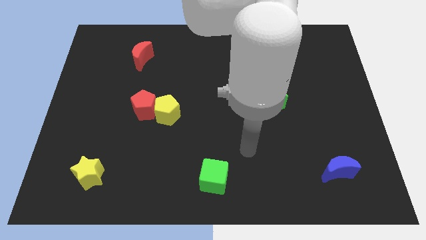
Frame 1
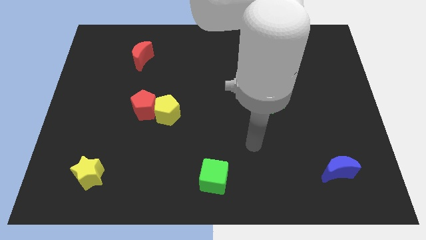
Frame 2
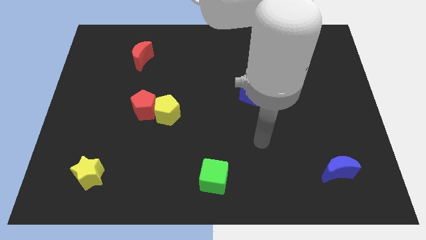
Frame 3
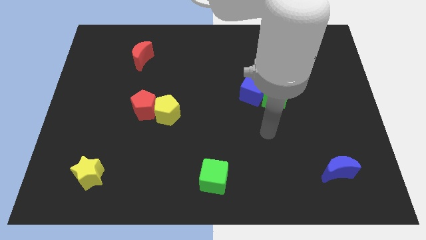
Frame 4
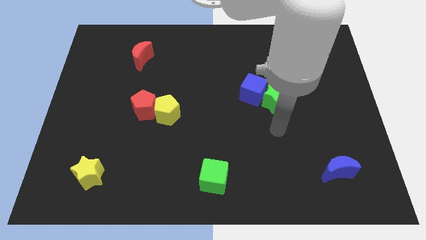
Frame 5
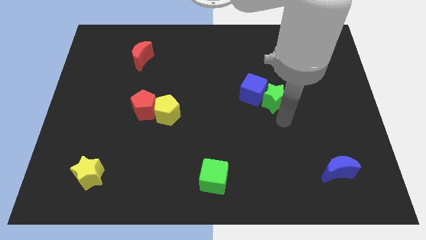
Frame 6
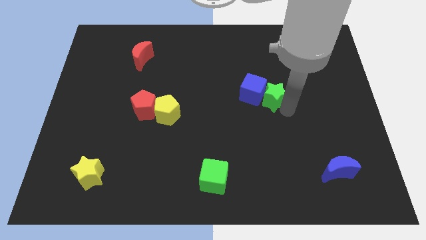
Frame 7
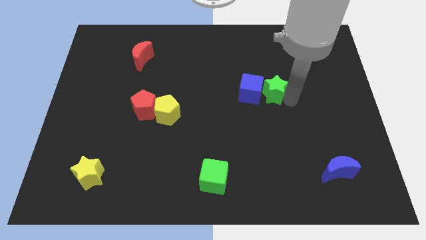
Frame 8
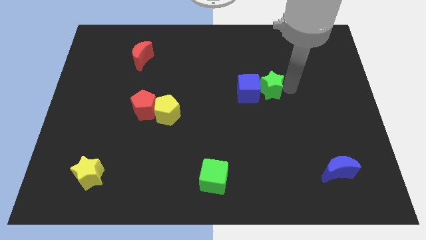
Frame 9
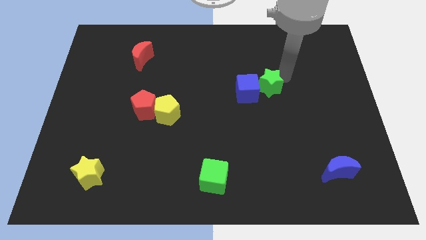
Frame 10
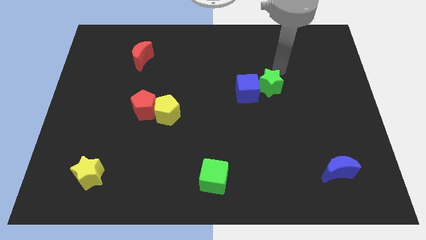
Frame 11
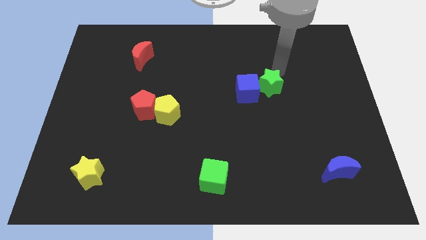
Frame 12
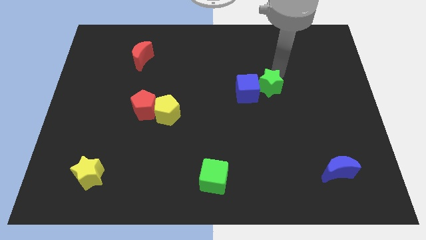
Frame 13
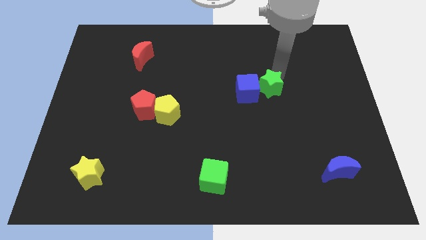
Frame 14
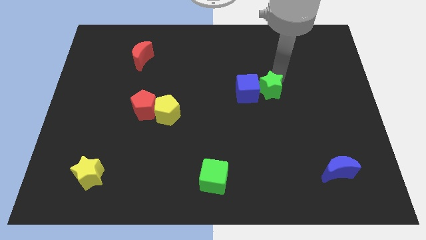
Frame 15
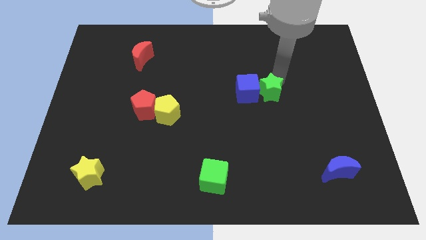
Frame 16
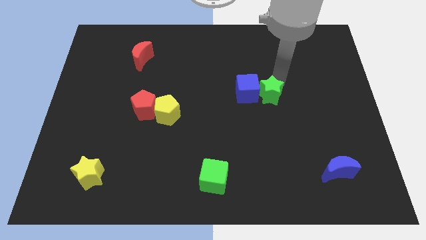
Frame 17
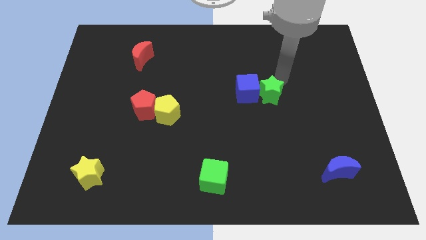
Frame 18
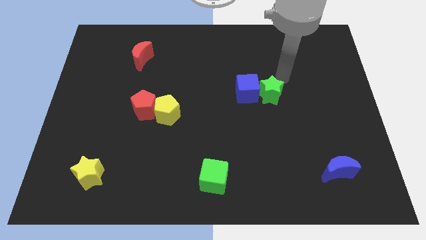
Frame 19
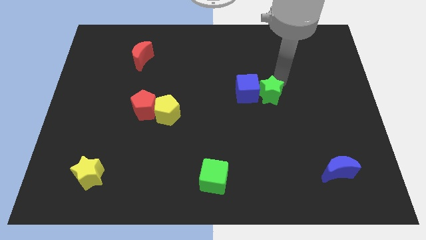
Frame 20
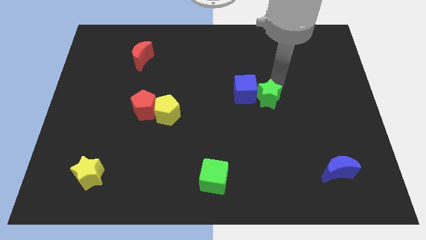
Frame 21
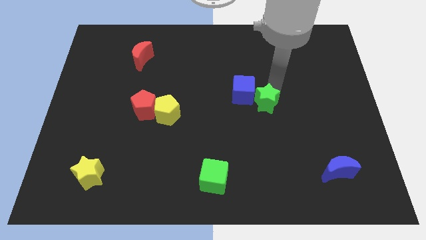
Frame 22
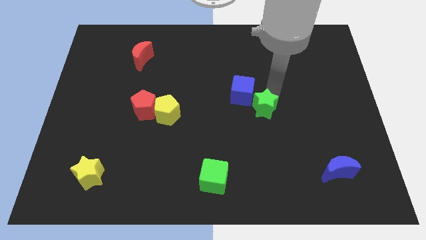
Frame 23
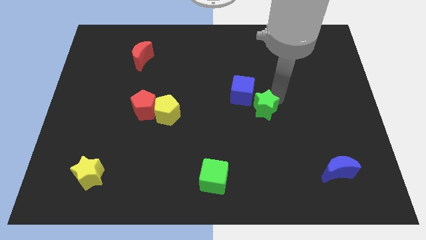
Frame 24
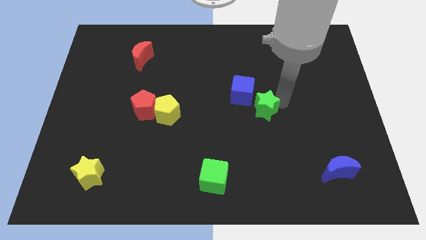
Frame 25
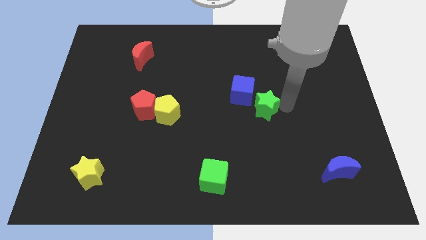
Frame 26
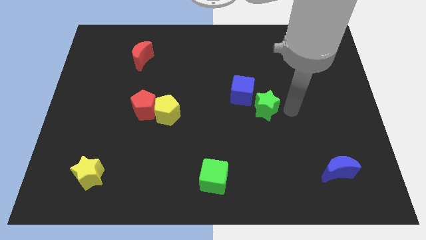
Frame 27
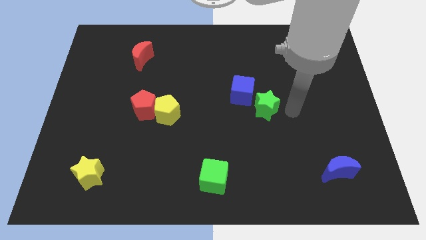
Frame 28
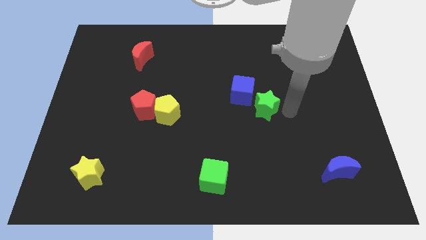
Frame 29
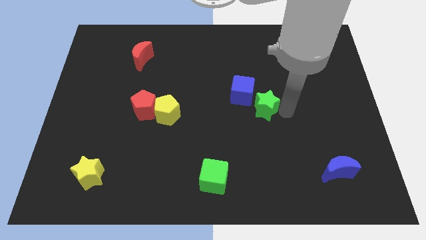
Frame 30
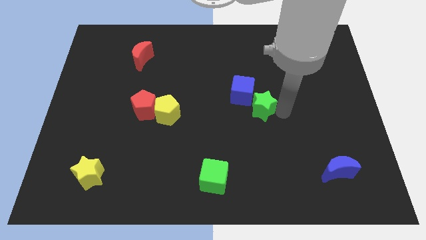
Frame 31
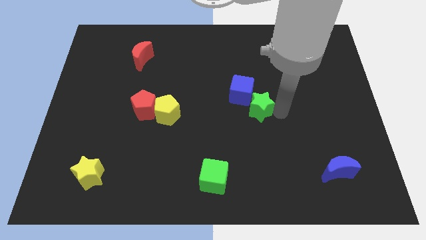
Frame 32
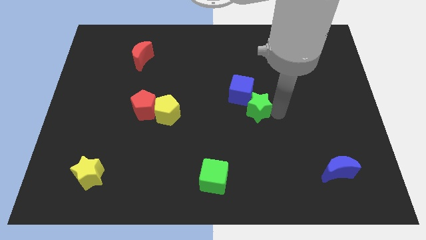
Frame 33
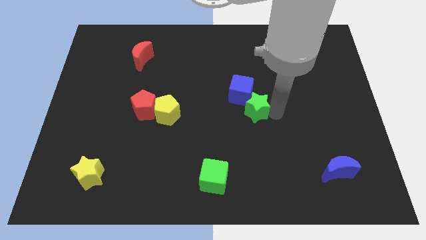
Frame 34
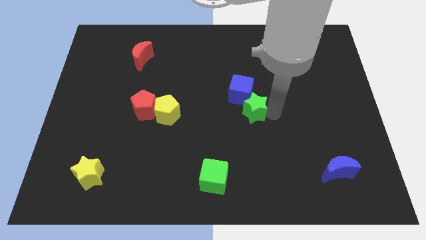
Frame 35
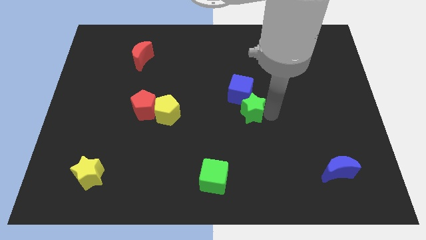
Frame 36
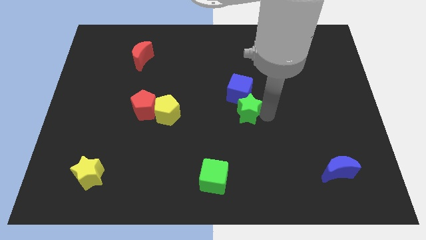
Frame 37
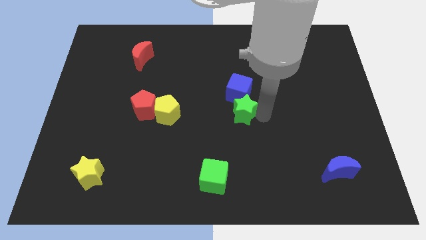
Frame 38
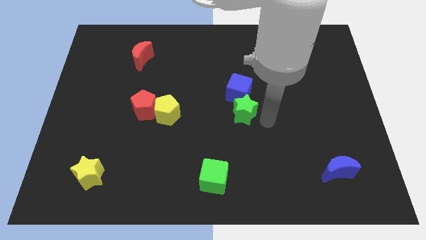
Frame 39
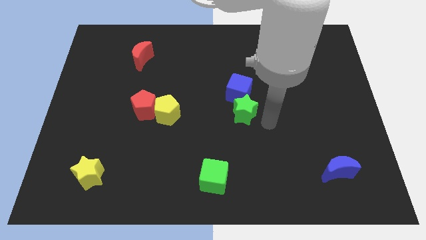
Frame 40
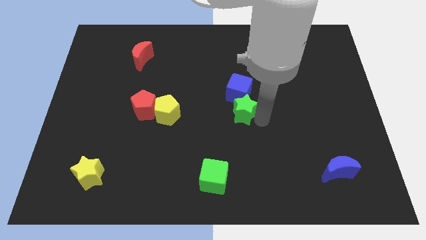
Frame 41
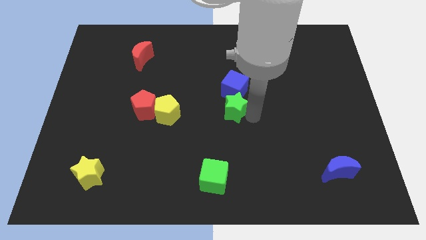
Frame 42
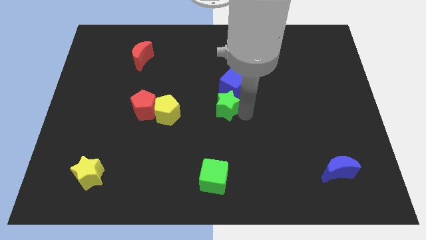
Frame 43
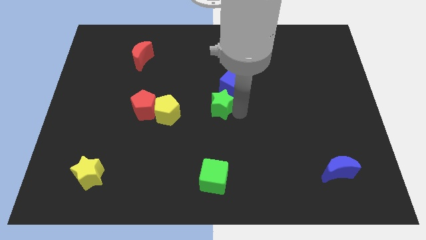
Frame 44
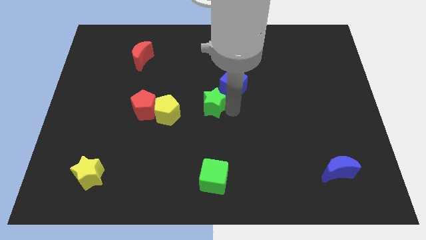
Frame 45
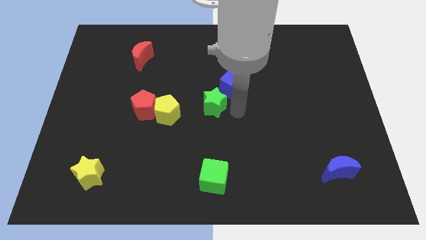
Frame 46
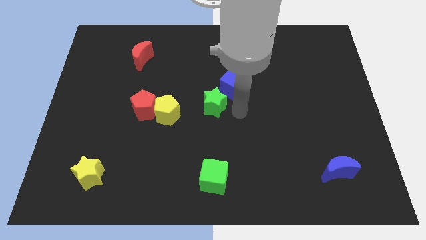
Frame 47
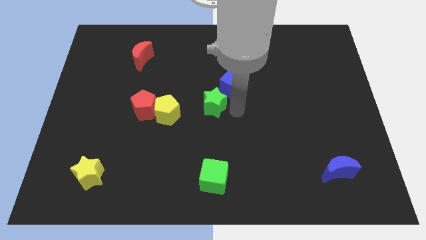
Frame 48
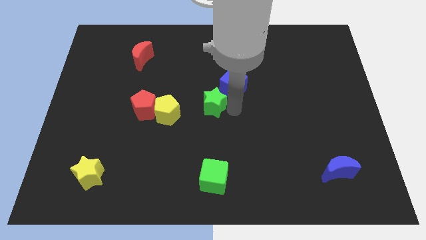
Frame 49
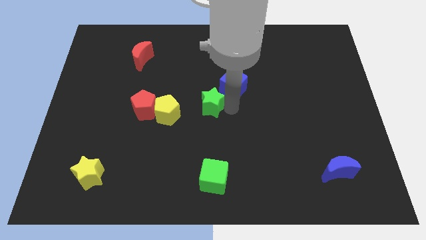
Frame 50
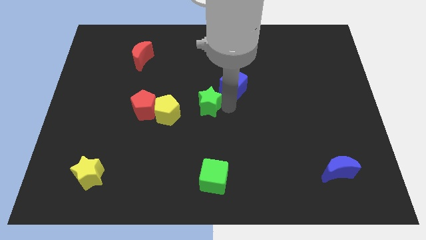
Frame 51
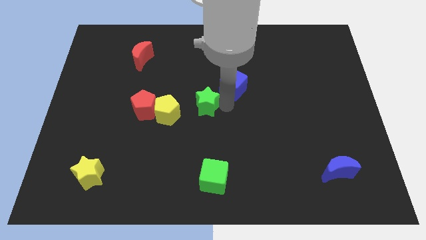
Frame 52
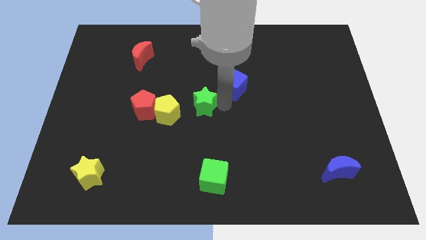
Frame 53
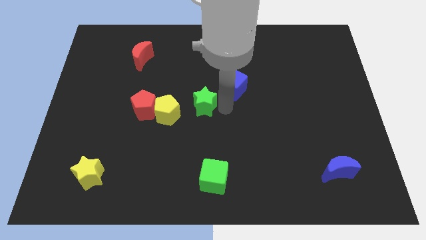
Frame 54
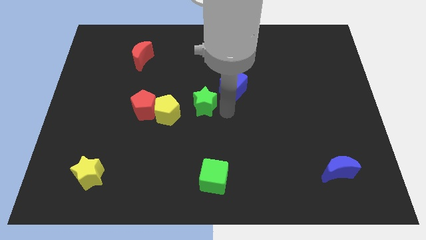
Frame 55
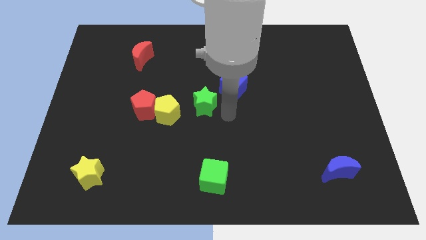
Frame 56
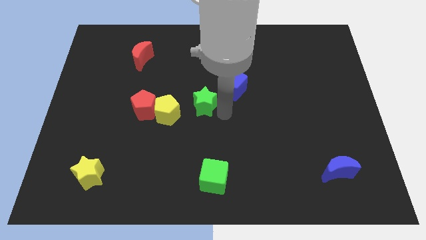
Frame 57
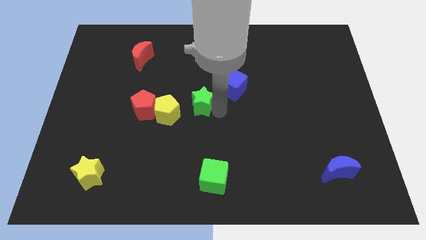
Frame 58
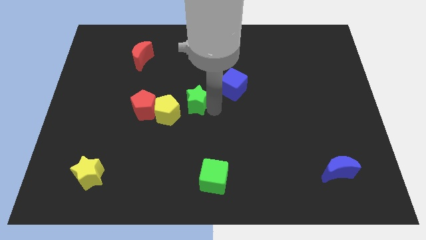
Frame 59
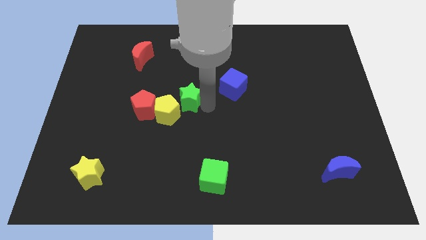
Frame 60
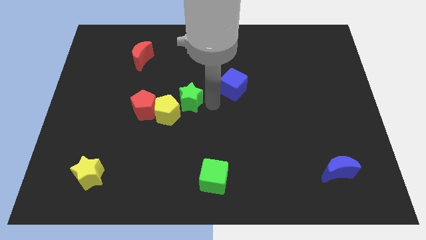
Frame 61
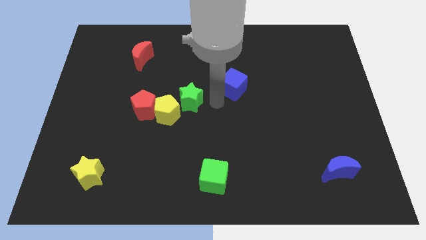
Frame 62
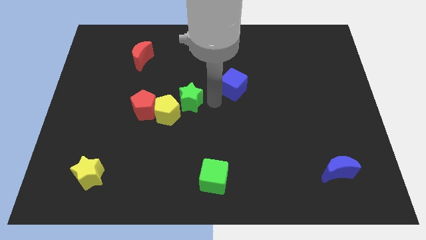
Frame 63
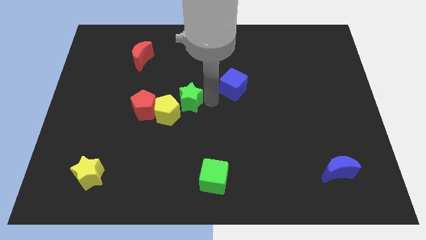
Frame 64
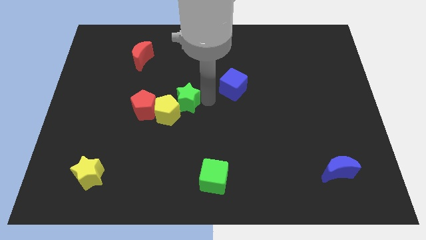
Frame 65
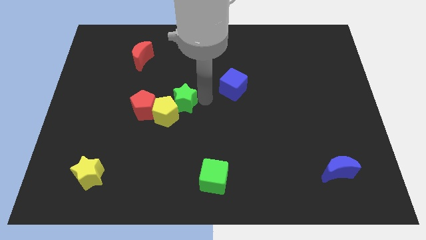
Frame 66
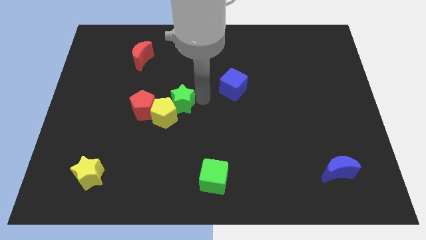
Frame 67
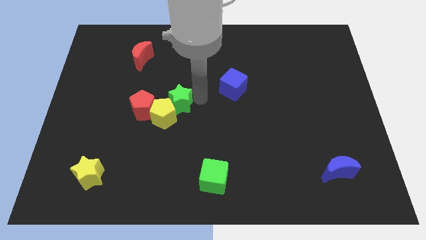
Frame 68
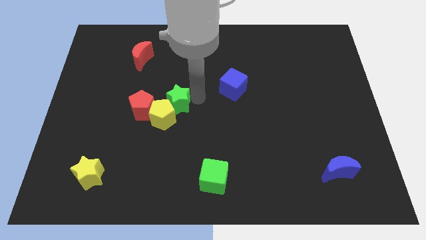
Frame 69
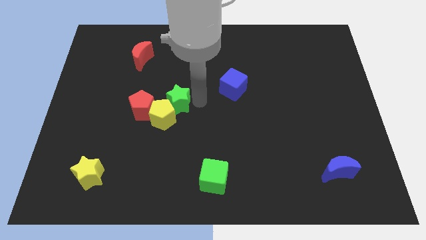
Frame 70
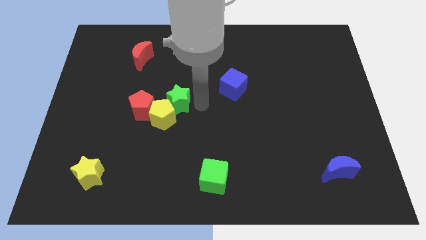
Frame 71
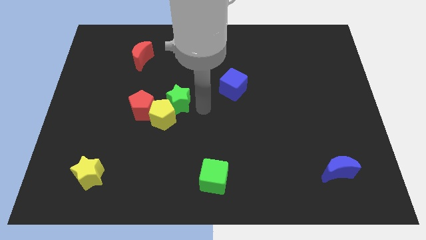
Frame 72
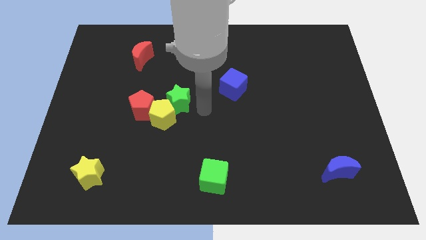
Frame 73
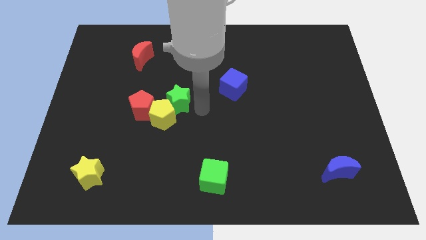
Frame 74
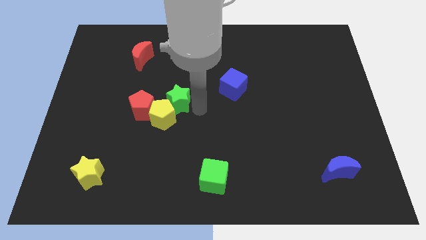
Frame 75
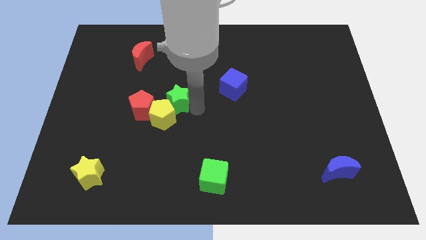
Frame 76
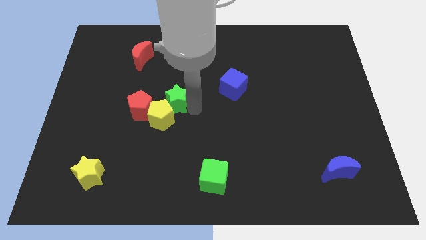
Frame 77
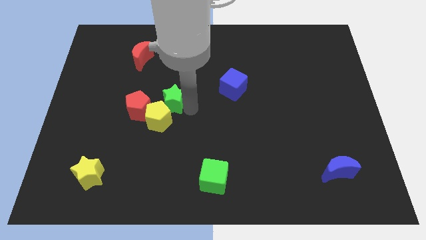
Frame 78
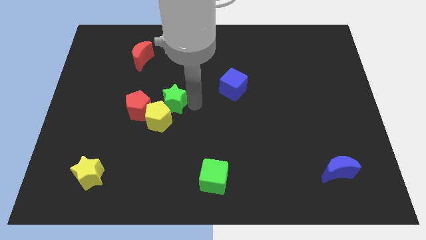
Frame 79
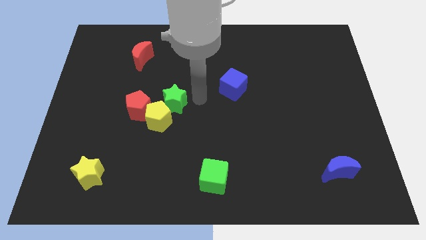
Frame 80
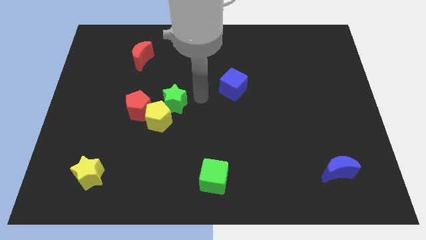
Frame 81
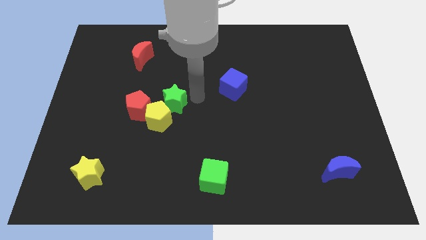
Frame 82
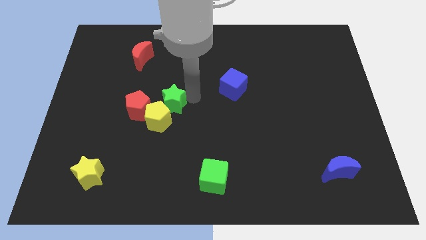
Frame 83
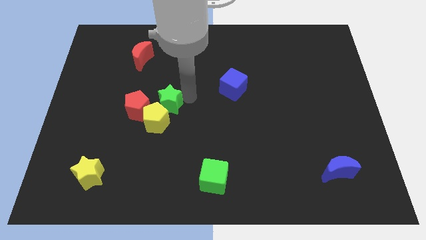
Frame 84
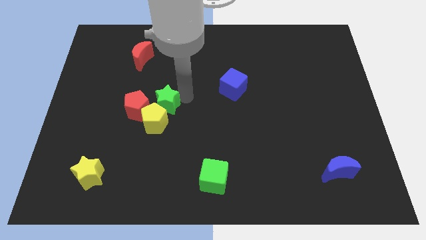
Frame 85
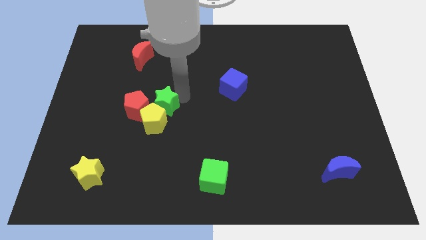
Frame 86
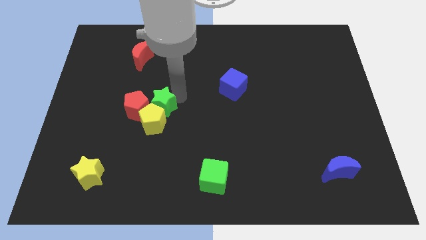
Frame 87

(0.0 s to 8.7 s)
push the green star to the red pentagon
